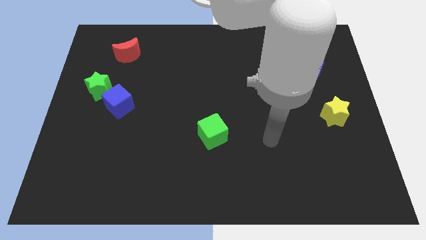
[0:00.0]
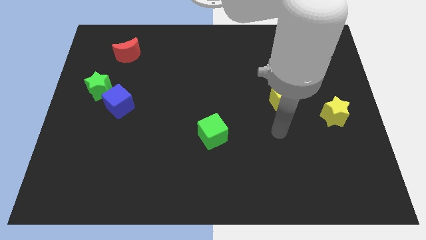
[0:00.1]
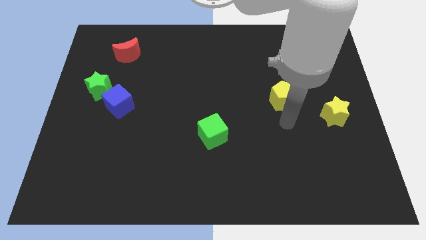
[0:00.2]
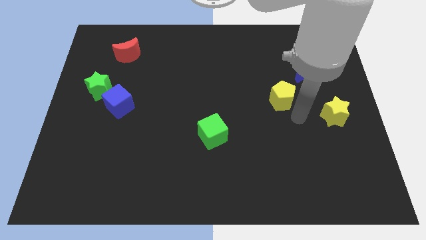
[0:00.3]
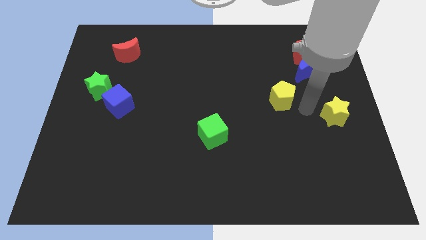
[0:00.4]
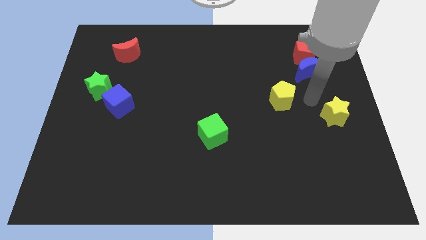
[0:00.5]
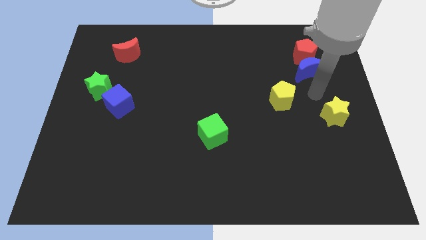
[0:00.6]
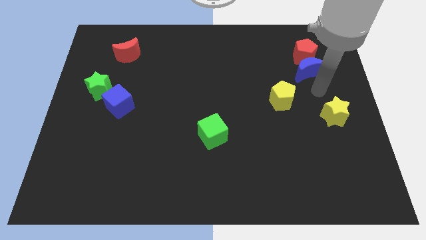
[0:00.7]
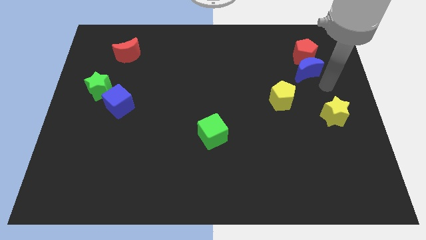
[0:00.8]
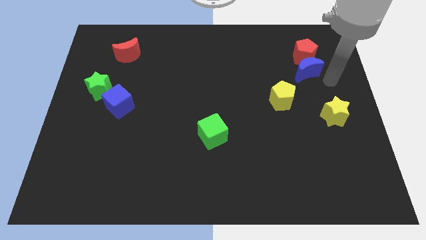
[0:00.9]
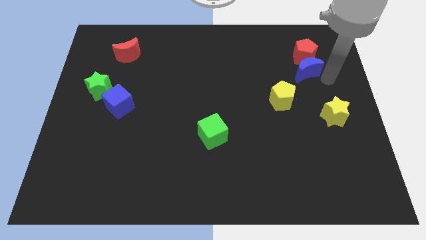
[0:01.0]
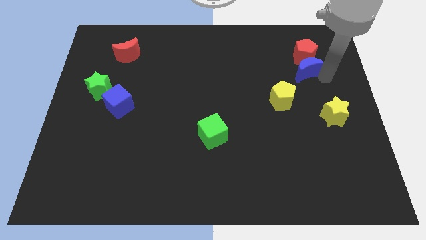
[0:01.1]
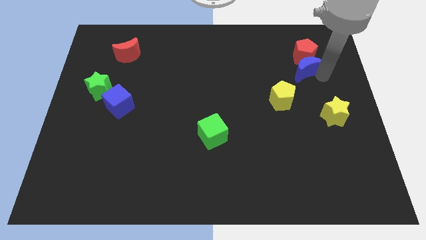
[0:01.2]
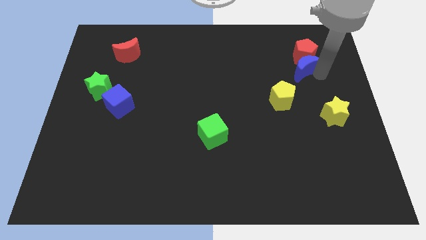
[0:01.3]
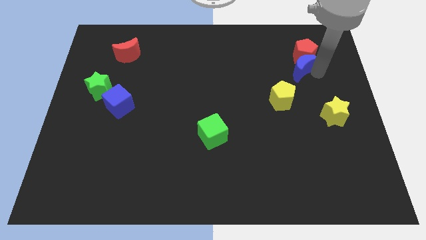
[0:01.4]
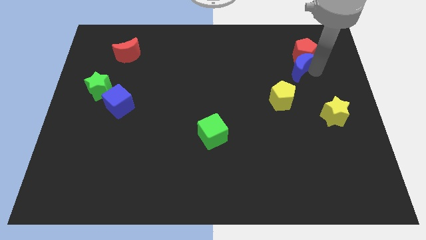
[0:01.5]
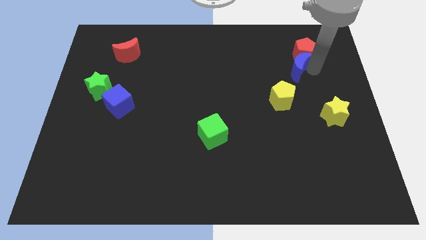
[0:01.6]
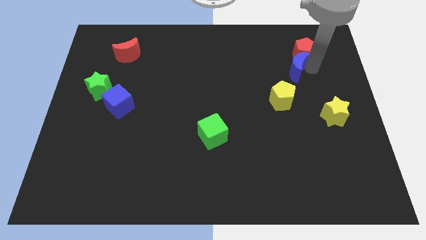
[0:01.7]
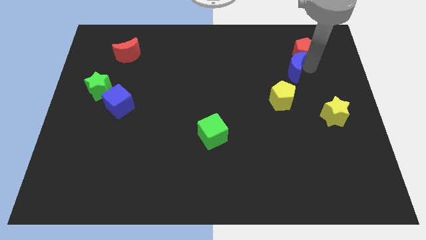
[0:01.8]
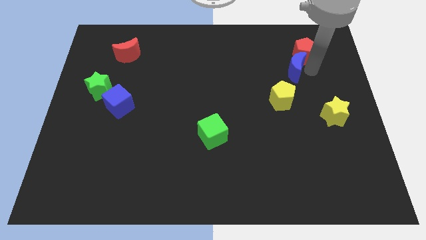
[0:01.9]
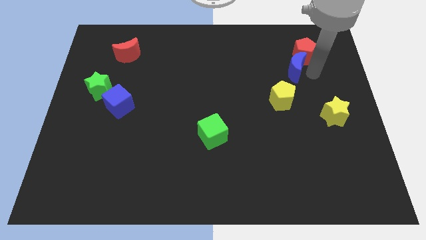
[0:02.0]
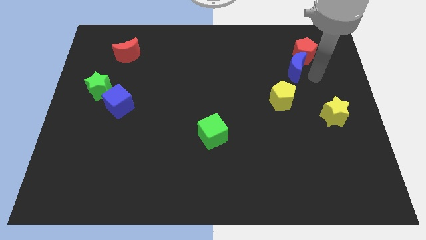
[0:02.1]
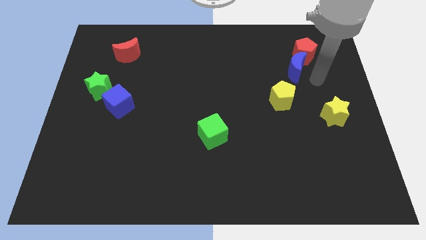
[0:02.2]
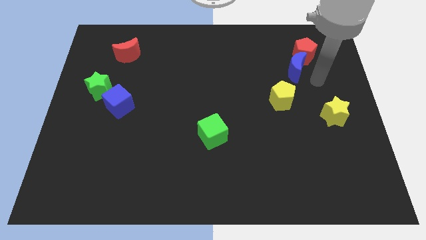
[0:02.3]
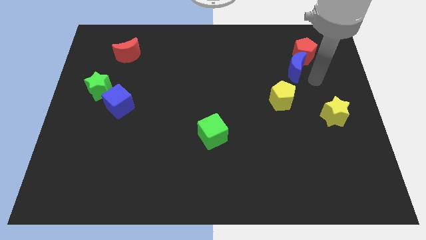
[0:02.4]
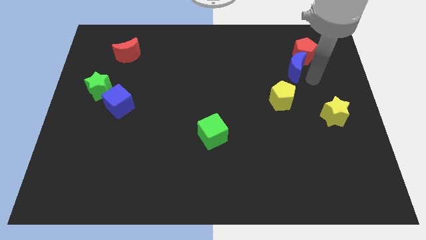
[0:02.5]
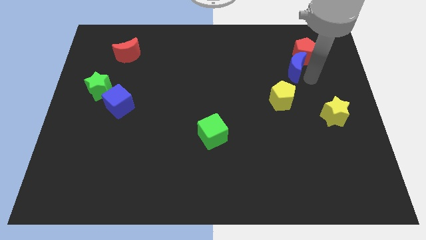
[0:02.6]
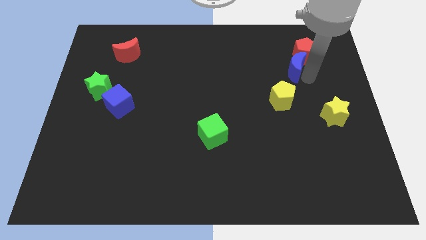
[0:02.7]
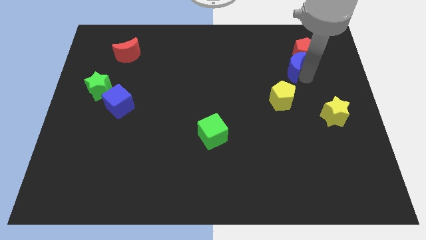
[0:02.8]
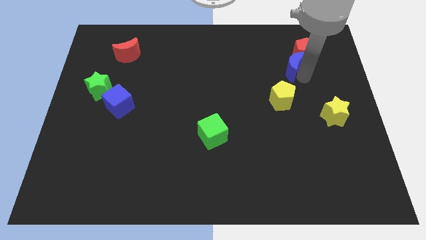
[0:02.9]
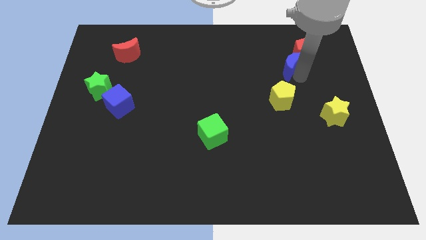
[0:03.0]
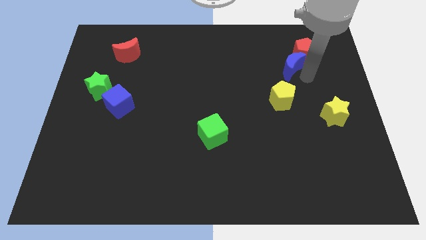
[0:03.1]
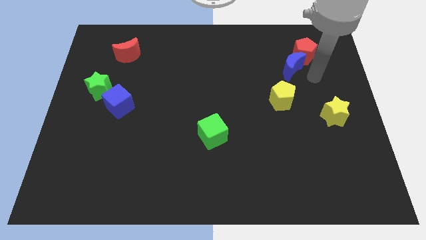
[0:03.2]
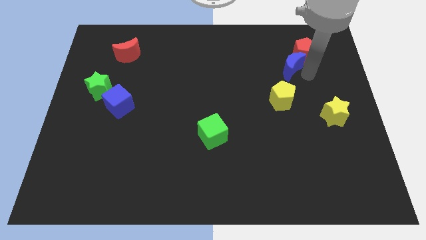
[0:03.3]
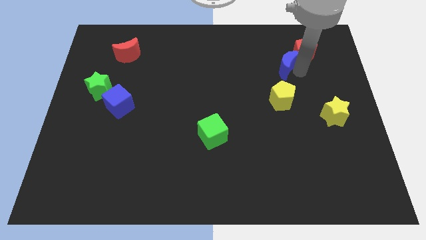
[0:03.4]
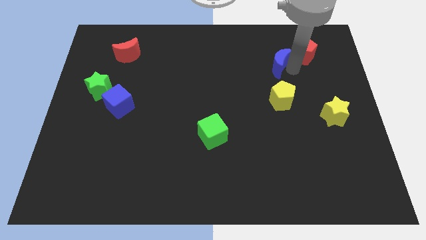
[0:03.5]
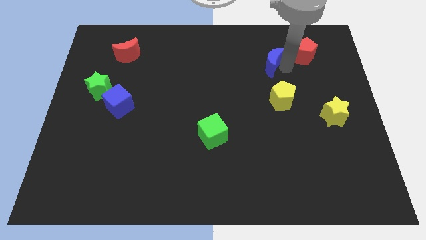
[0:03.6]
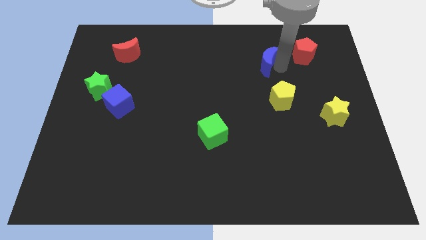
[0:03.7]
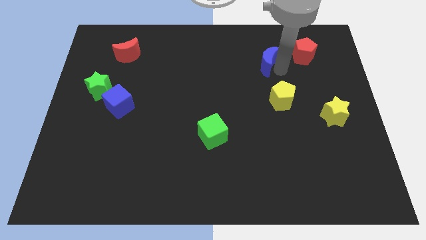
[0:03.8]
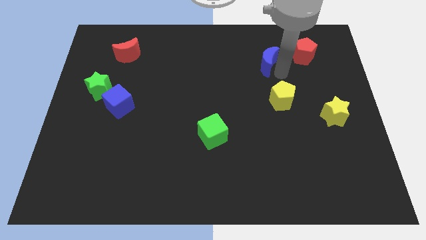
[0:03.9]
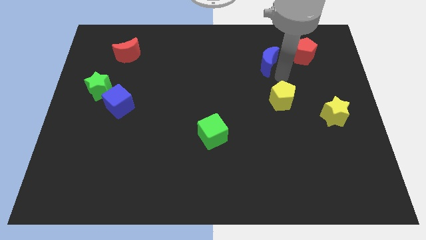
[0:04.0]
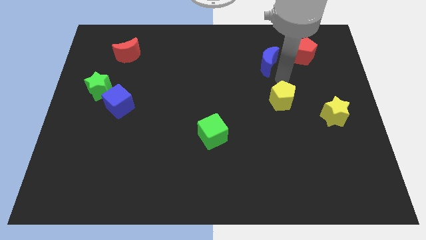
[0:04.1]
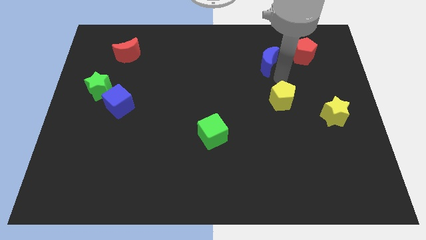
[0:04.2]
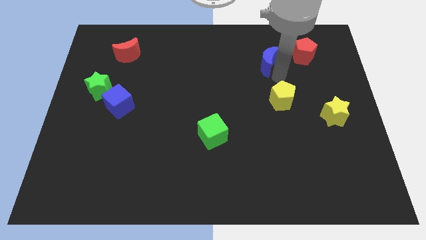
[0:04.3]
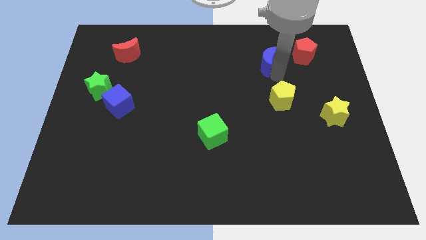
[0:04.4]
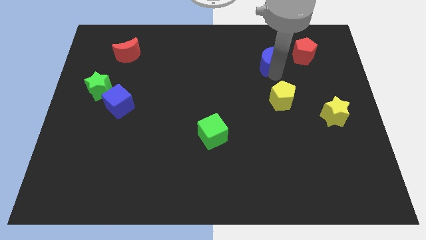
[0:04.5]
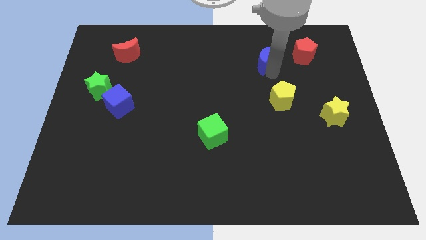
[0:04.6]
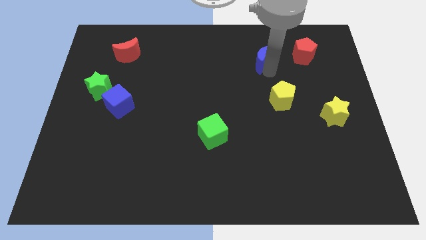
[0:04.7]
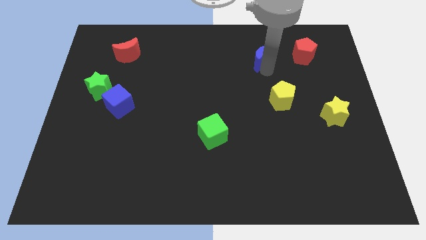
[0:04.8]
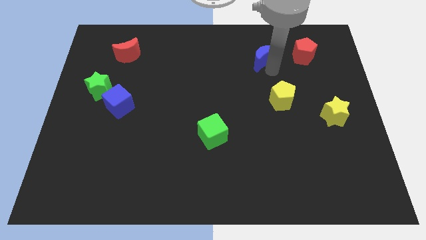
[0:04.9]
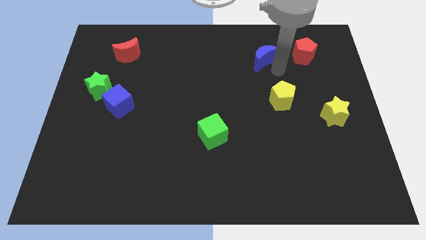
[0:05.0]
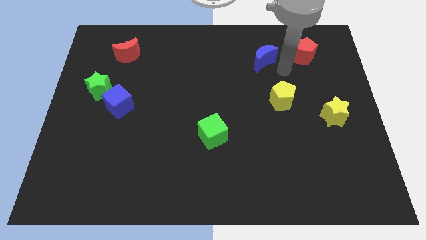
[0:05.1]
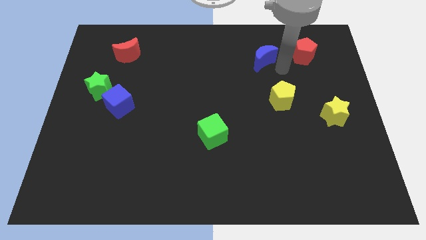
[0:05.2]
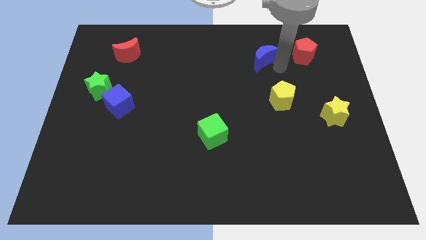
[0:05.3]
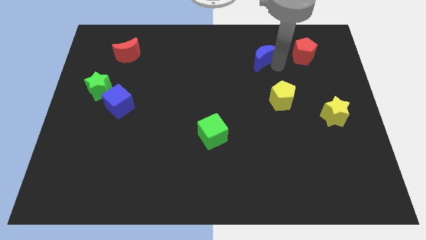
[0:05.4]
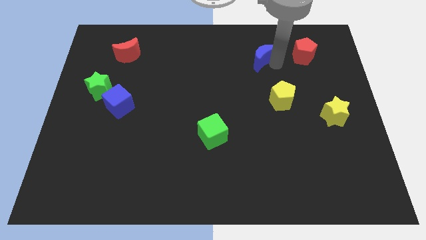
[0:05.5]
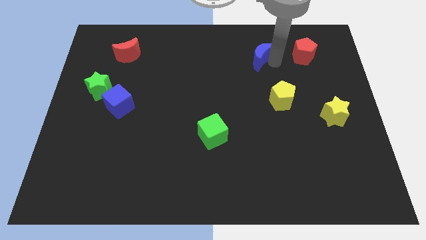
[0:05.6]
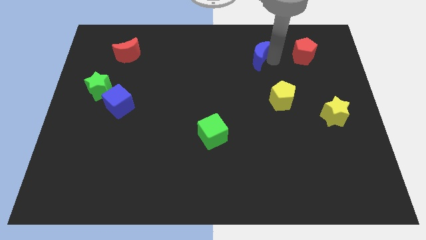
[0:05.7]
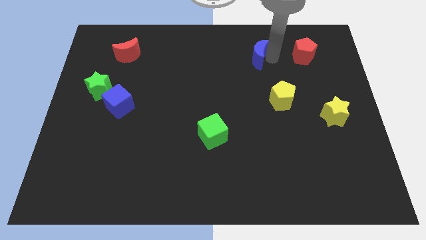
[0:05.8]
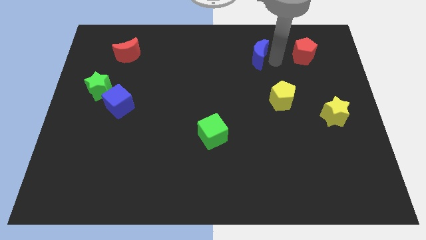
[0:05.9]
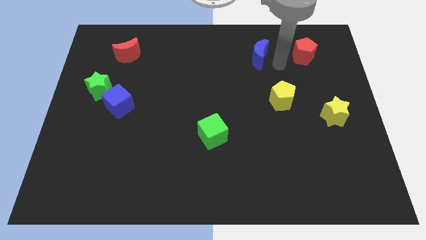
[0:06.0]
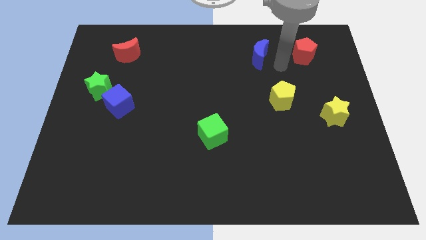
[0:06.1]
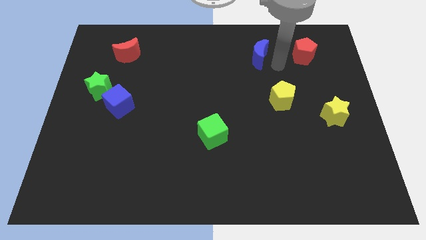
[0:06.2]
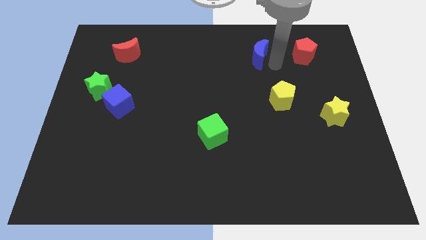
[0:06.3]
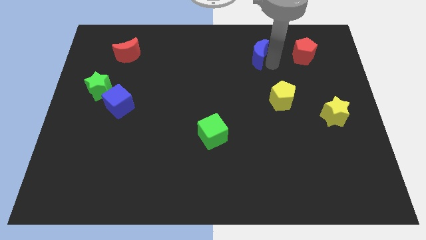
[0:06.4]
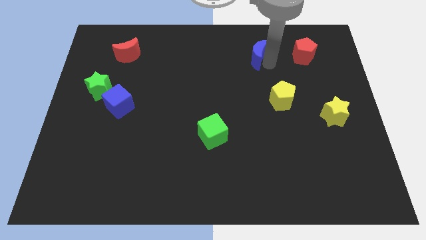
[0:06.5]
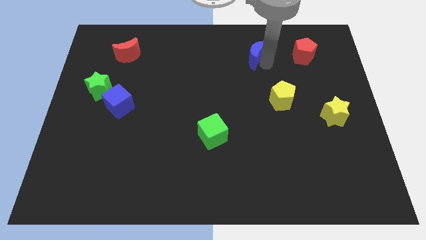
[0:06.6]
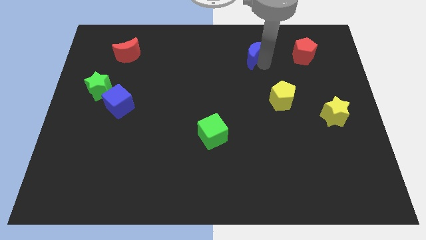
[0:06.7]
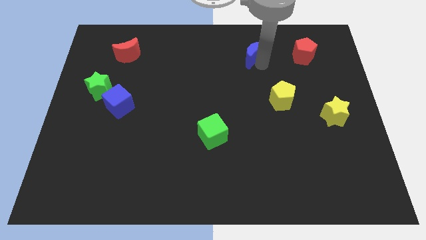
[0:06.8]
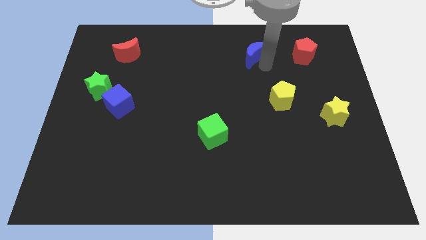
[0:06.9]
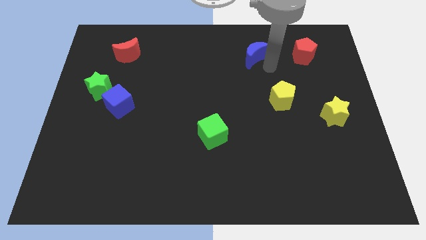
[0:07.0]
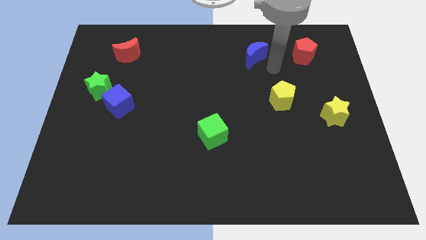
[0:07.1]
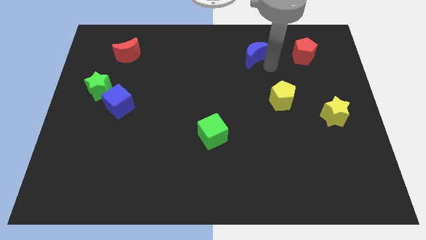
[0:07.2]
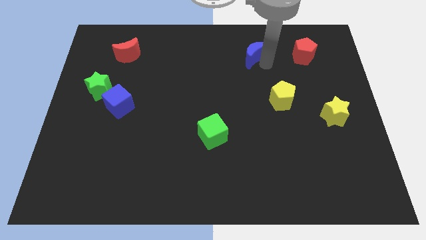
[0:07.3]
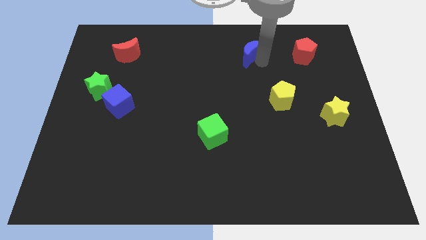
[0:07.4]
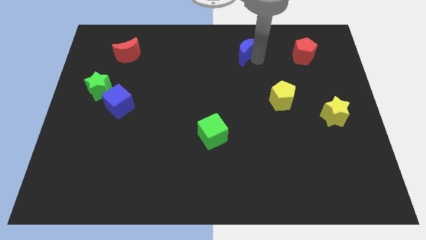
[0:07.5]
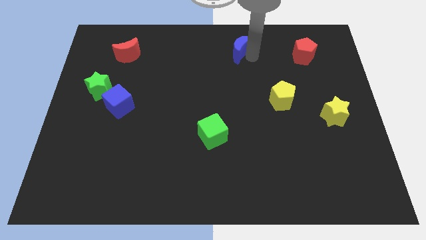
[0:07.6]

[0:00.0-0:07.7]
put the blue moon to the top side
